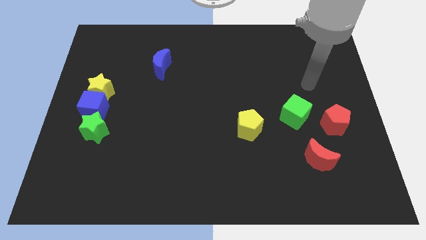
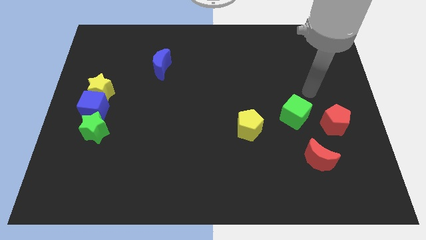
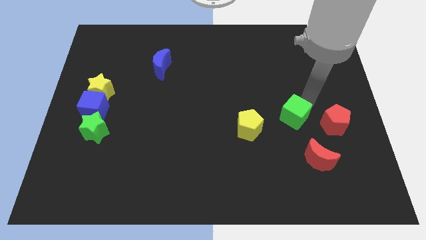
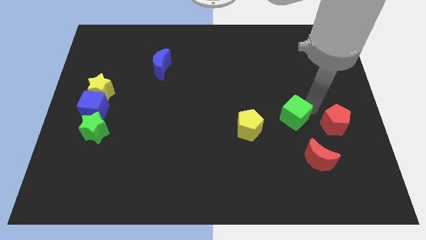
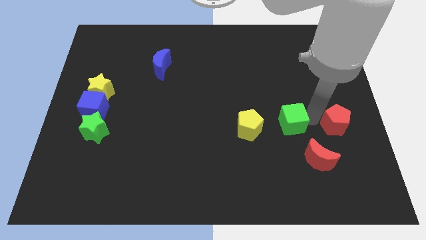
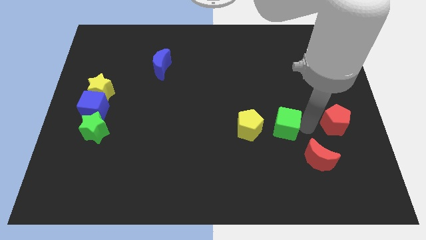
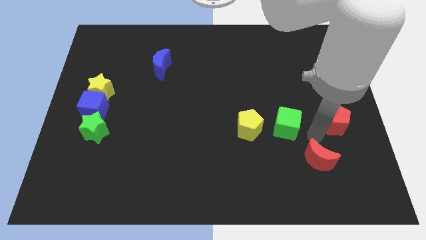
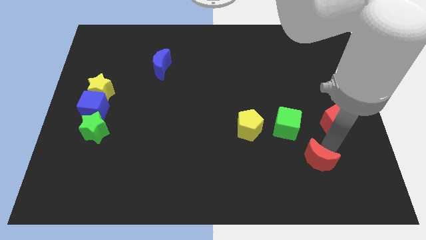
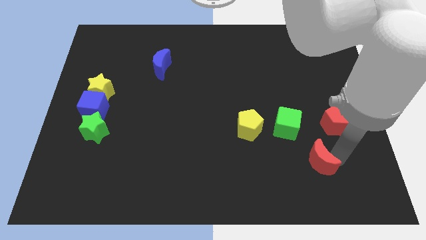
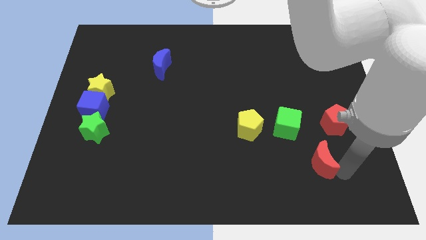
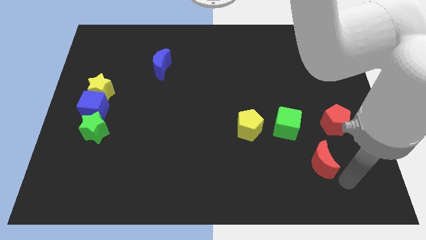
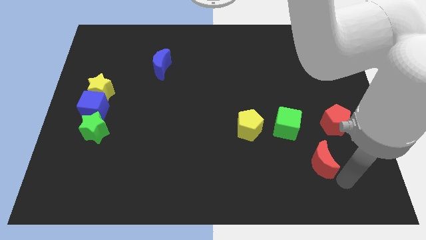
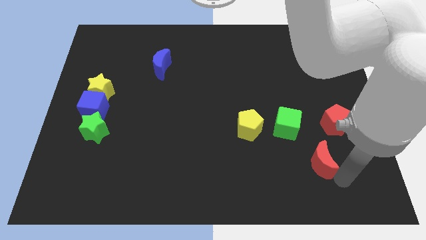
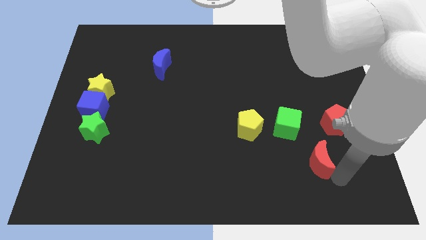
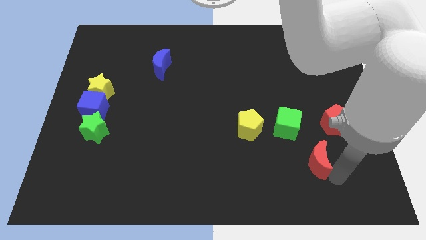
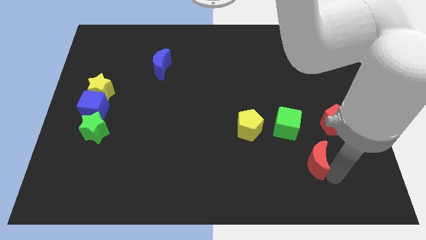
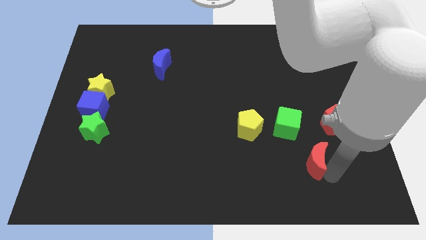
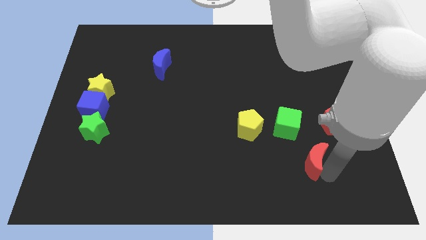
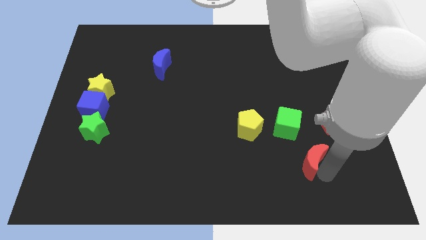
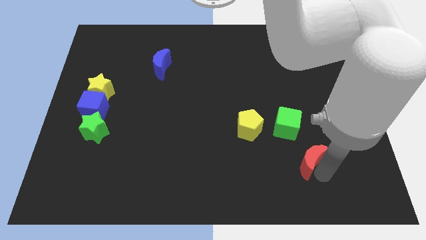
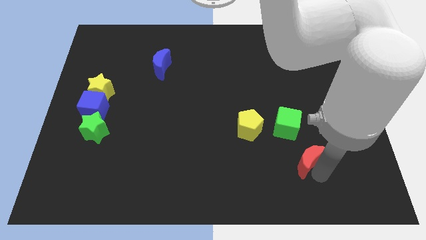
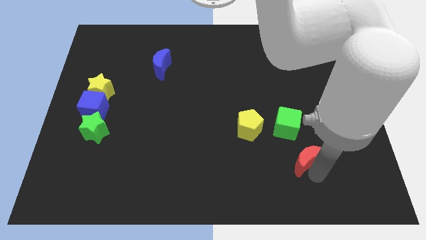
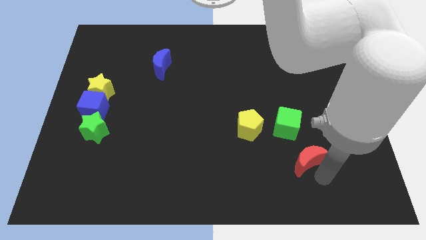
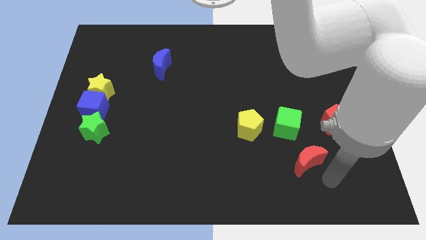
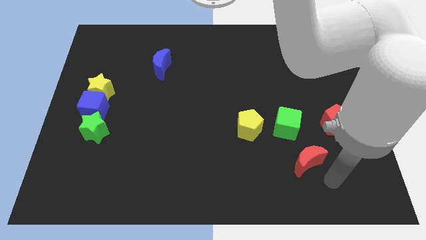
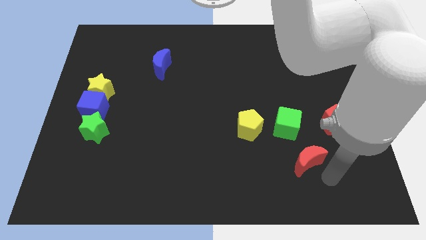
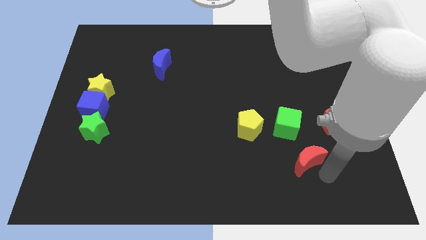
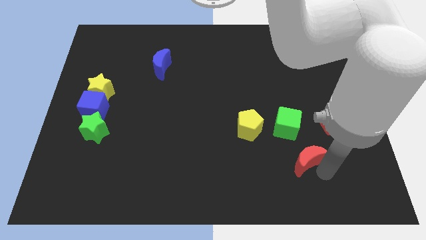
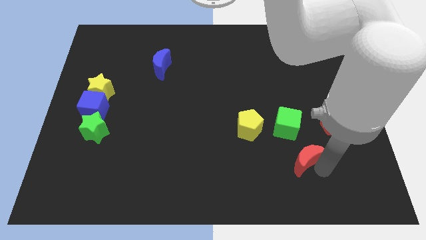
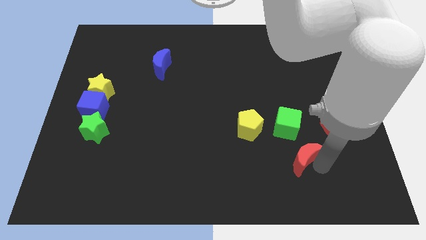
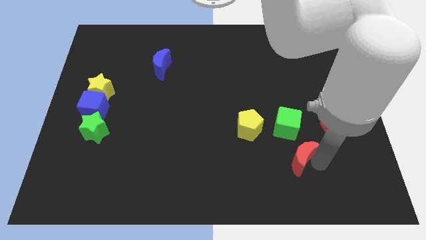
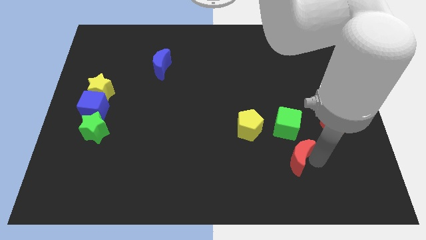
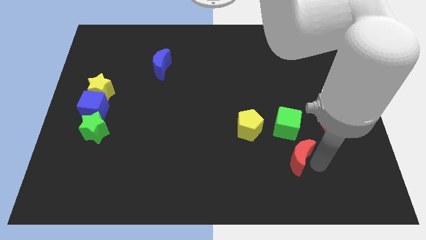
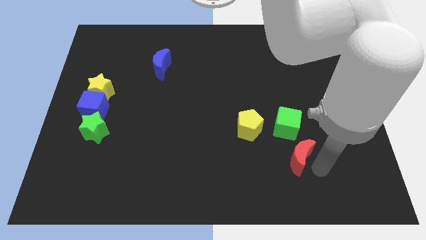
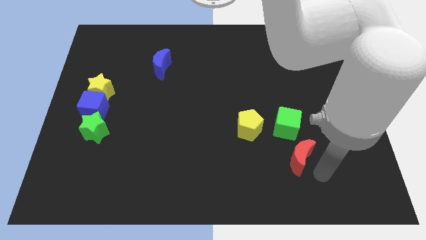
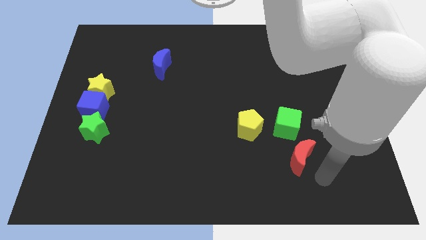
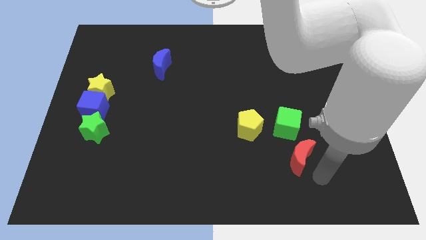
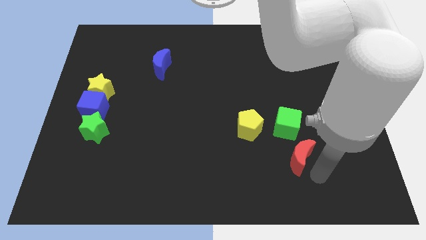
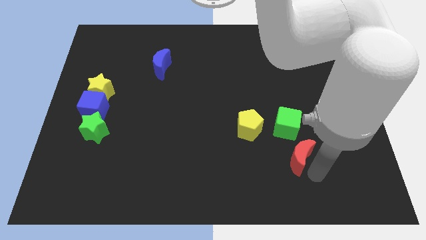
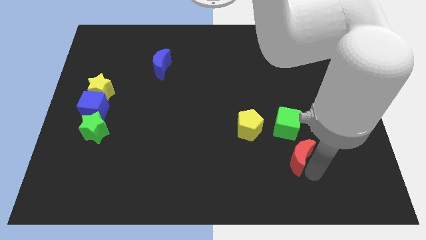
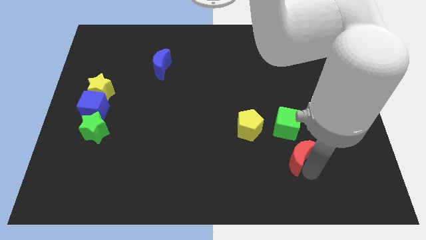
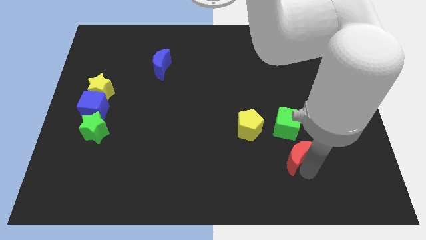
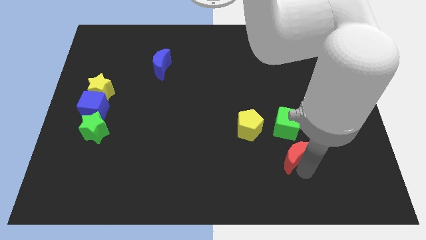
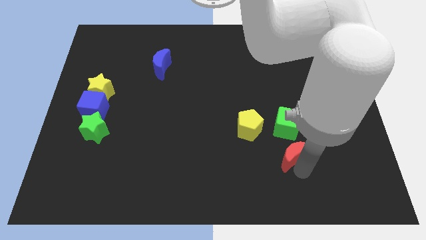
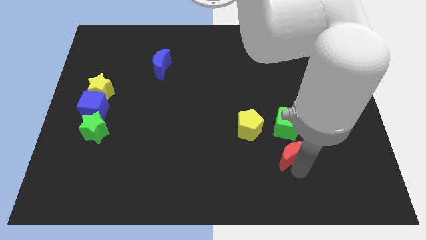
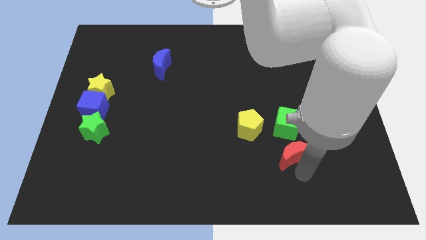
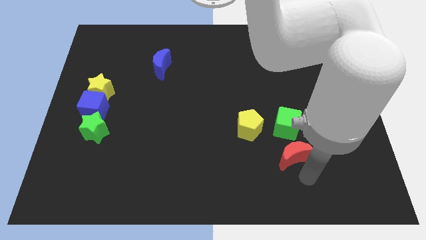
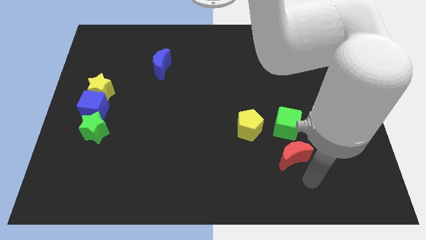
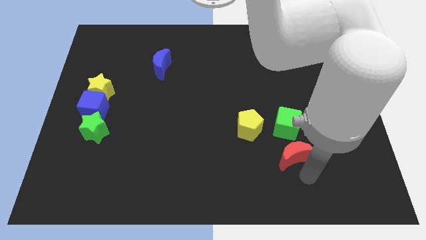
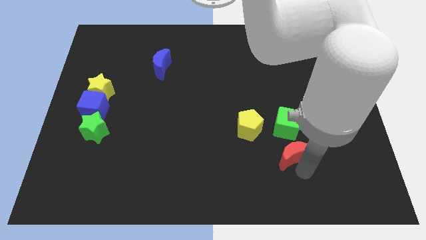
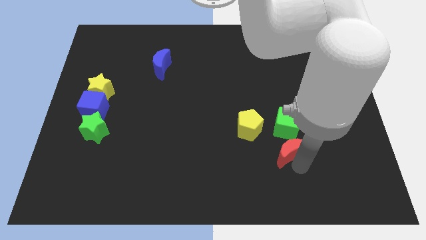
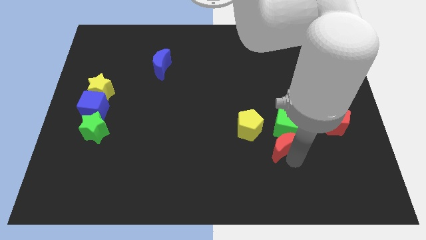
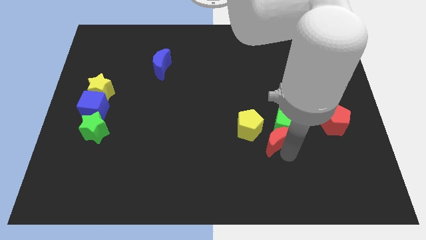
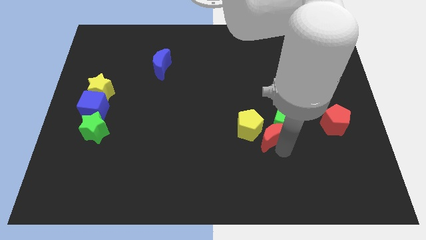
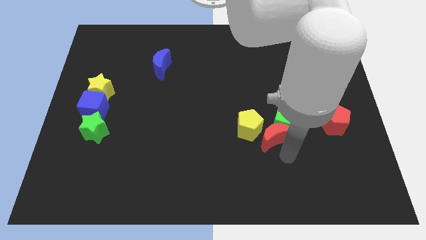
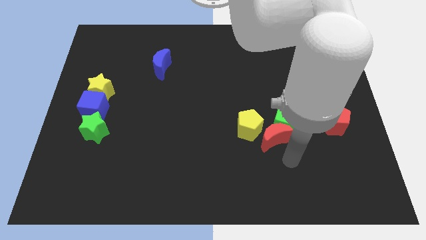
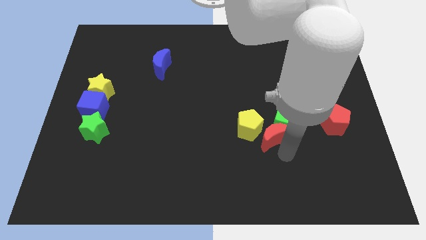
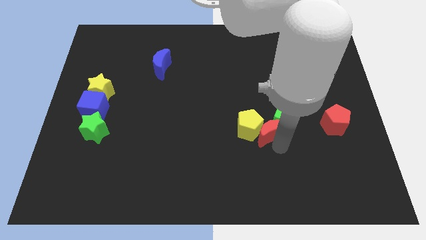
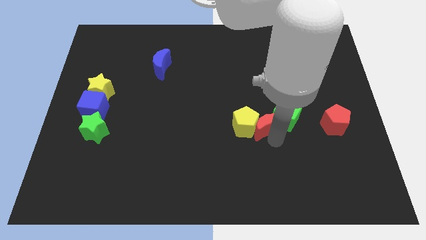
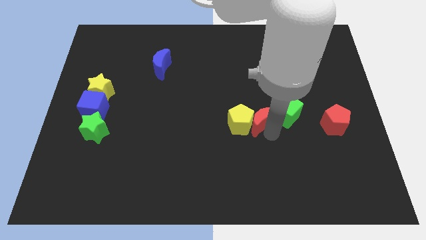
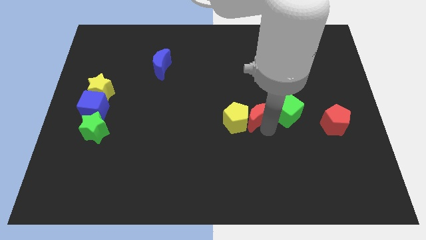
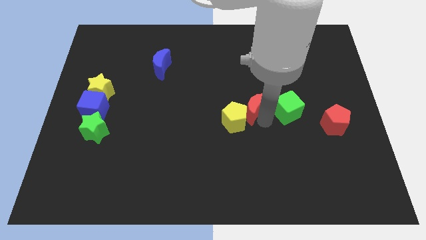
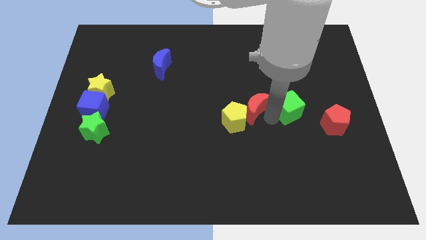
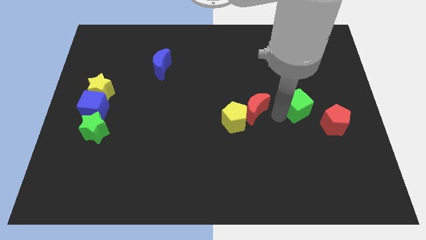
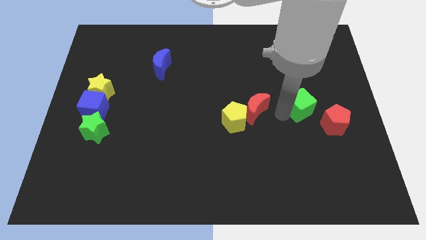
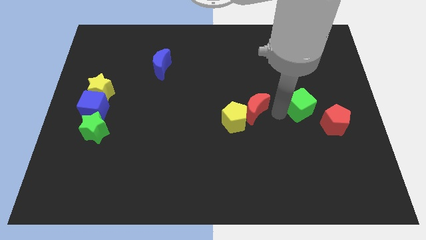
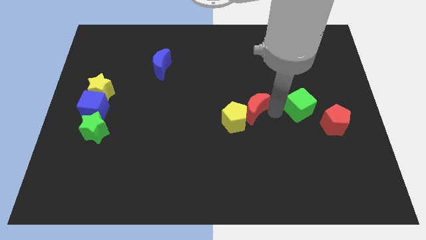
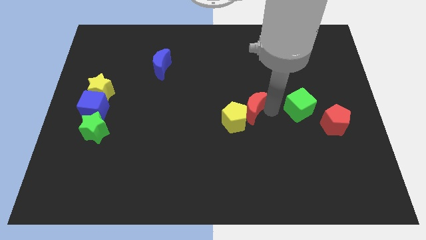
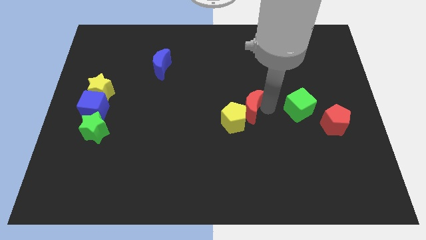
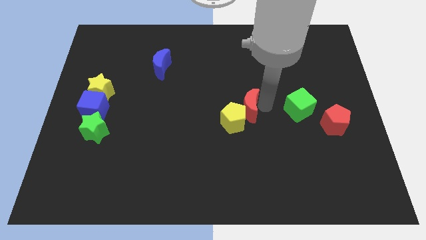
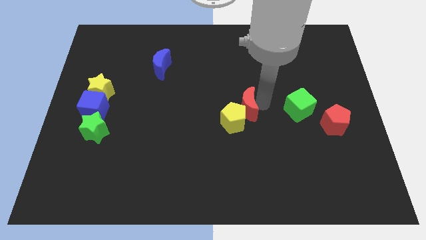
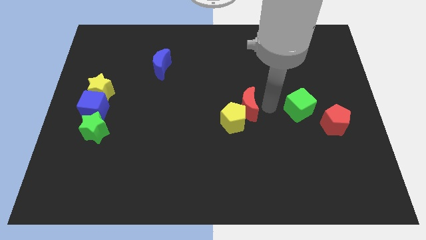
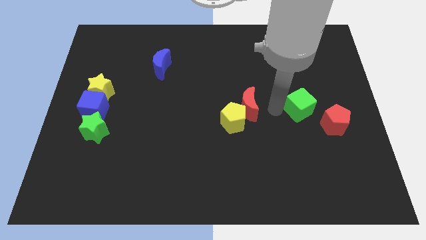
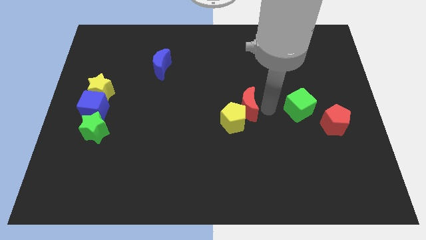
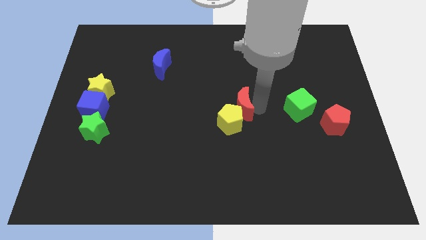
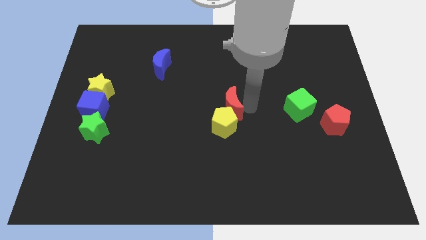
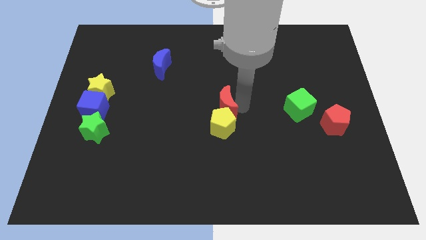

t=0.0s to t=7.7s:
push the red moon to the top left side of the yellow pentagon
